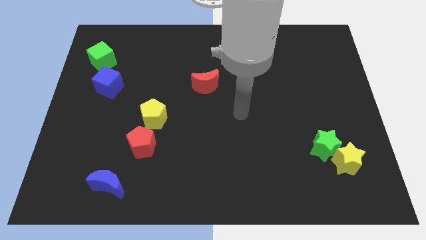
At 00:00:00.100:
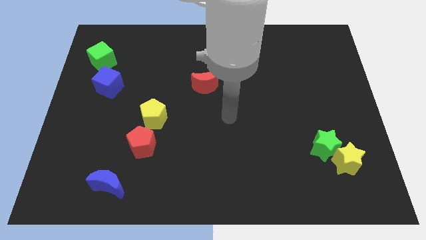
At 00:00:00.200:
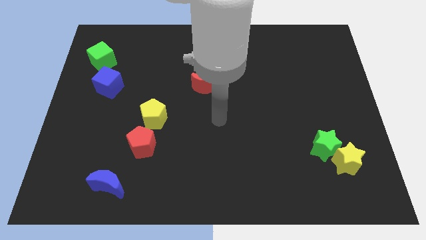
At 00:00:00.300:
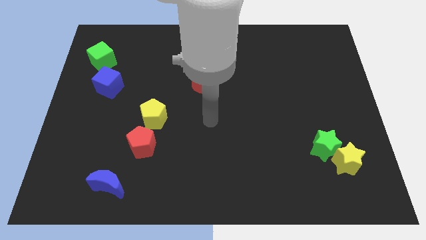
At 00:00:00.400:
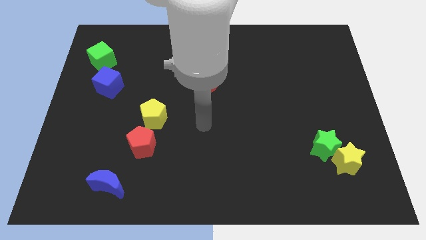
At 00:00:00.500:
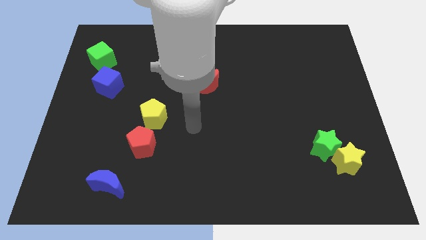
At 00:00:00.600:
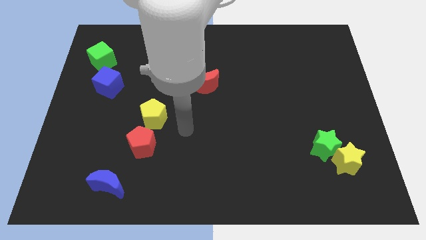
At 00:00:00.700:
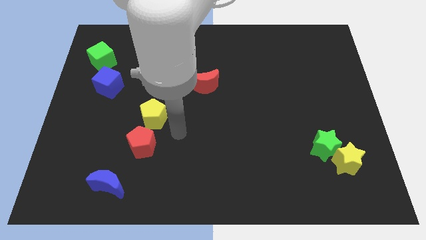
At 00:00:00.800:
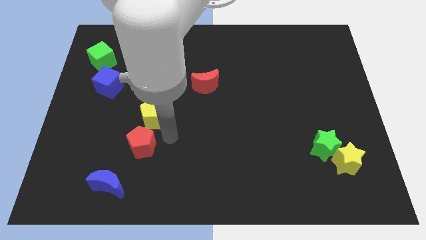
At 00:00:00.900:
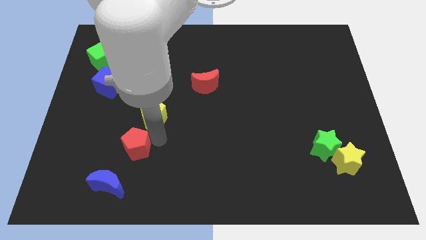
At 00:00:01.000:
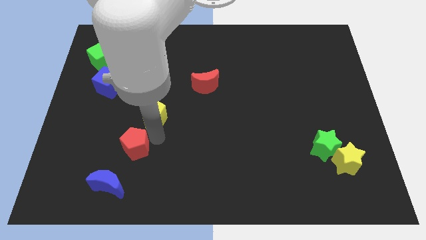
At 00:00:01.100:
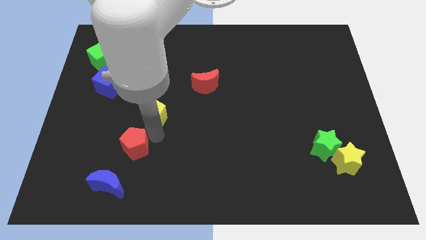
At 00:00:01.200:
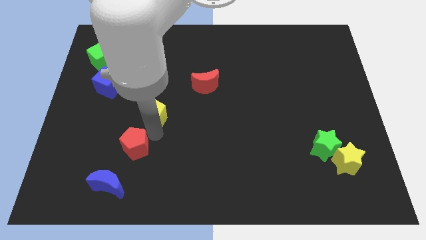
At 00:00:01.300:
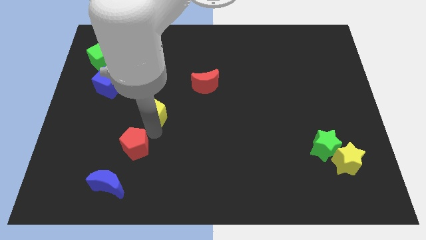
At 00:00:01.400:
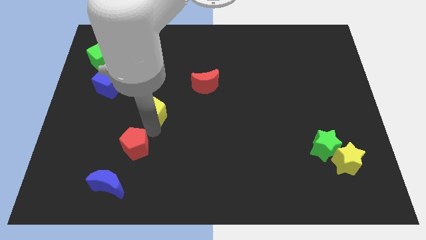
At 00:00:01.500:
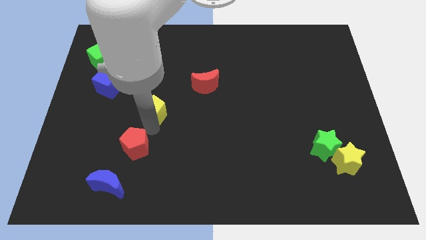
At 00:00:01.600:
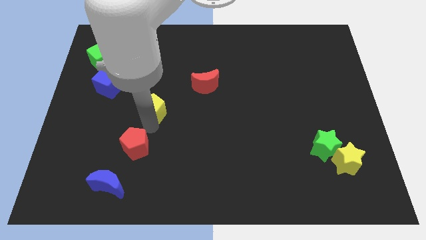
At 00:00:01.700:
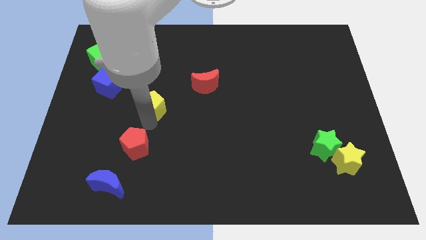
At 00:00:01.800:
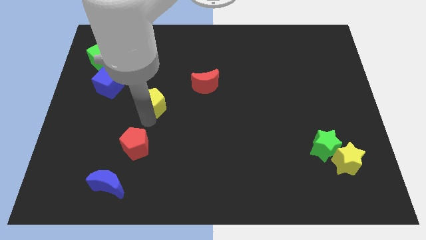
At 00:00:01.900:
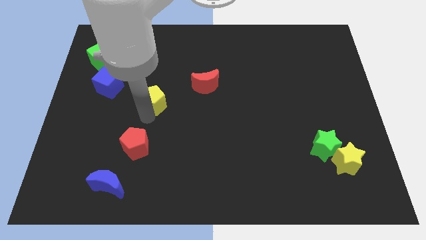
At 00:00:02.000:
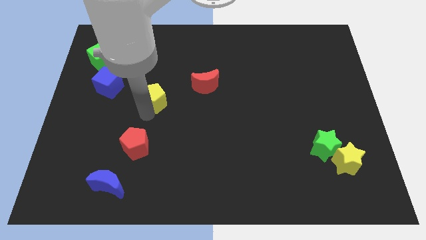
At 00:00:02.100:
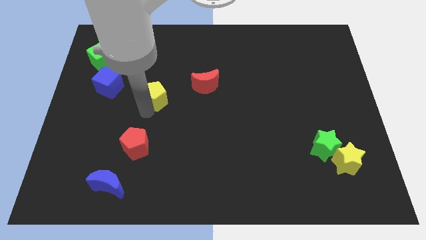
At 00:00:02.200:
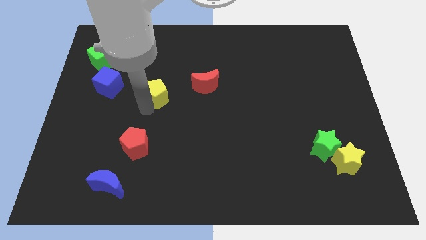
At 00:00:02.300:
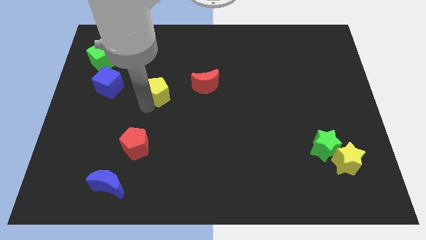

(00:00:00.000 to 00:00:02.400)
slightly push the yellow pentagon up

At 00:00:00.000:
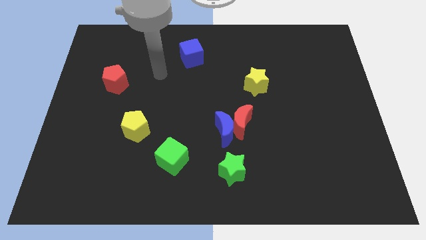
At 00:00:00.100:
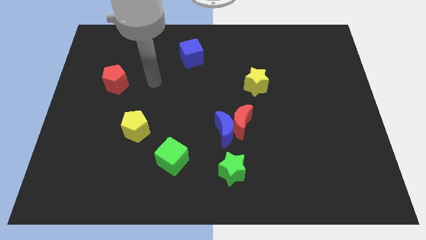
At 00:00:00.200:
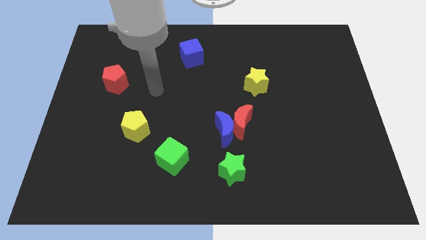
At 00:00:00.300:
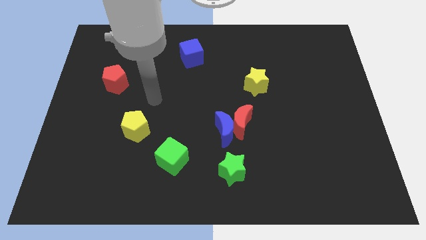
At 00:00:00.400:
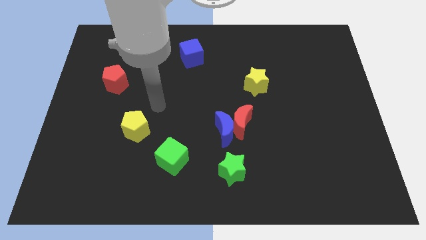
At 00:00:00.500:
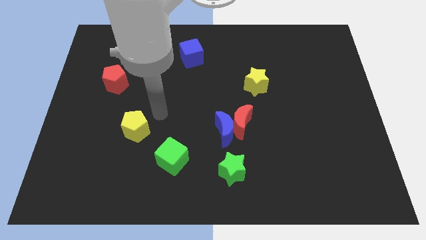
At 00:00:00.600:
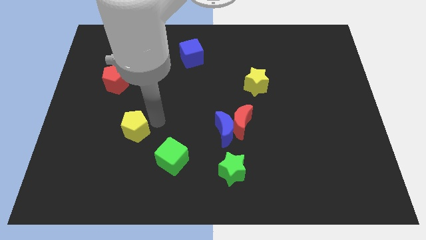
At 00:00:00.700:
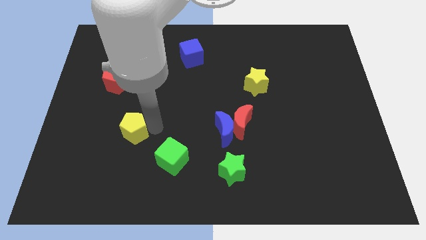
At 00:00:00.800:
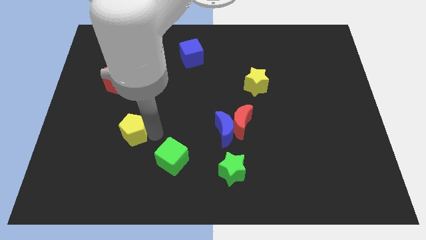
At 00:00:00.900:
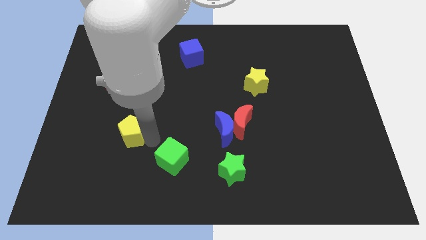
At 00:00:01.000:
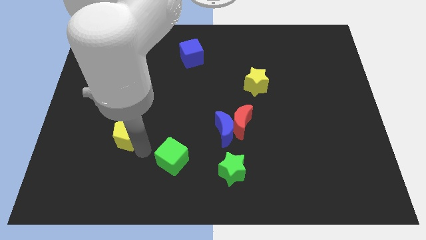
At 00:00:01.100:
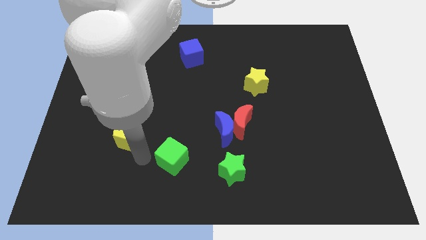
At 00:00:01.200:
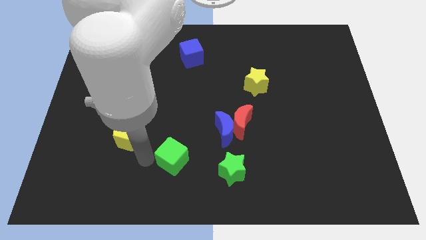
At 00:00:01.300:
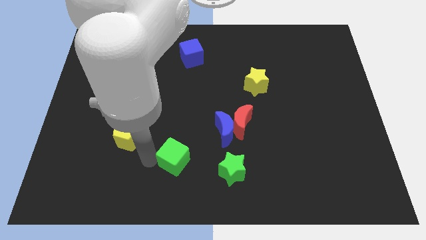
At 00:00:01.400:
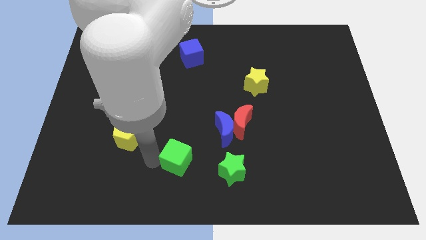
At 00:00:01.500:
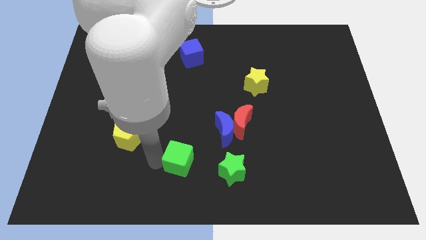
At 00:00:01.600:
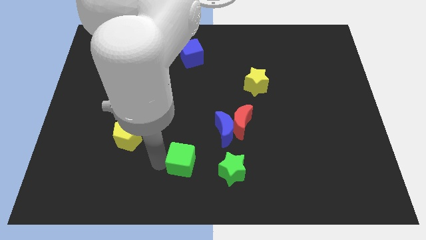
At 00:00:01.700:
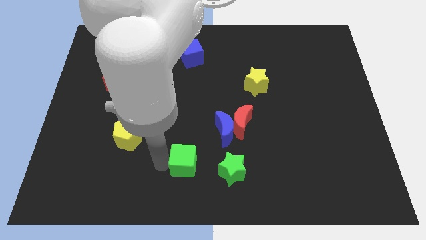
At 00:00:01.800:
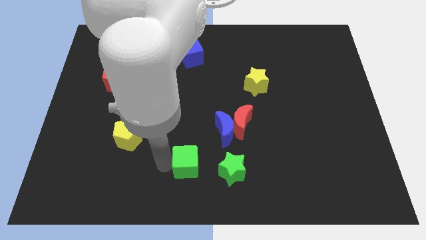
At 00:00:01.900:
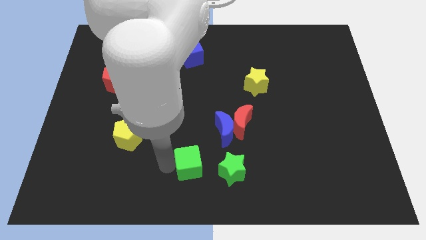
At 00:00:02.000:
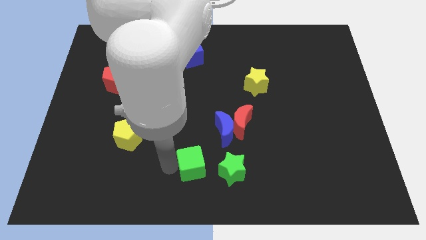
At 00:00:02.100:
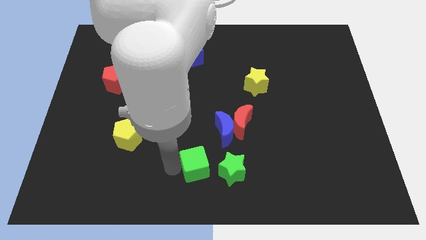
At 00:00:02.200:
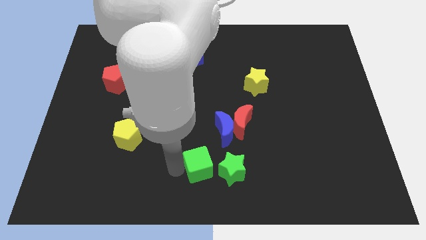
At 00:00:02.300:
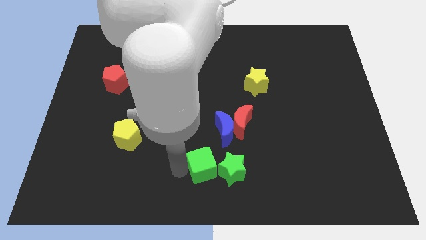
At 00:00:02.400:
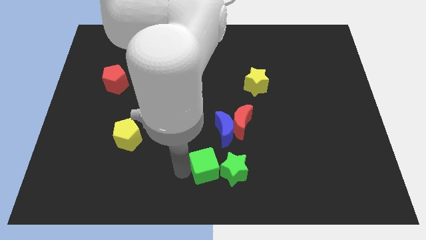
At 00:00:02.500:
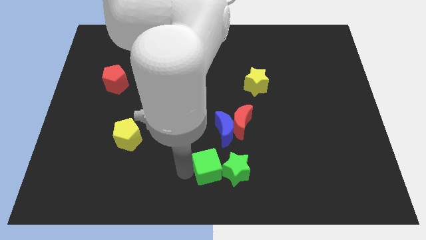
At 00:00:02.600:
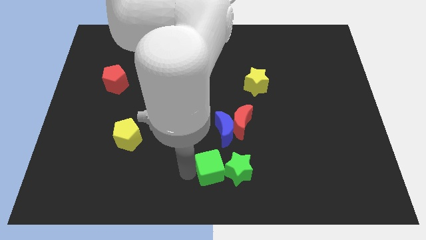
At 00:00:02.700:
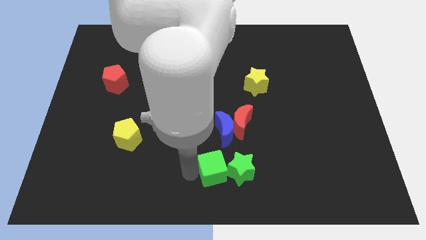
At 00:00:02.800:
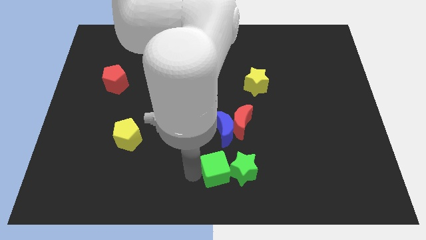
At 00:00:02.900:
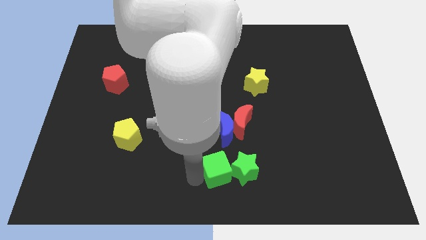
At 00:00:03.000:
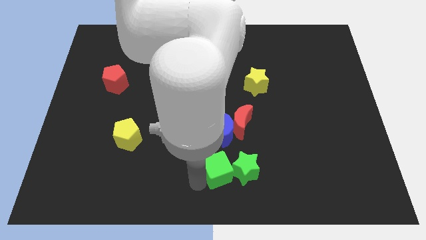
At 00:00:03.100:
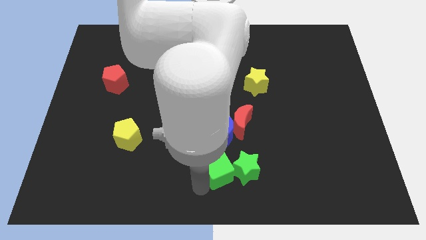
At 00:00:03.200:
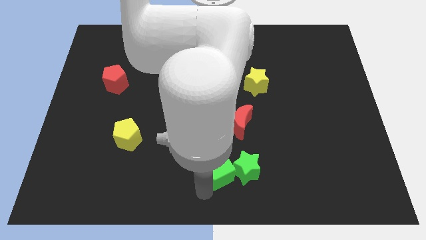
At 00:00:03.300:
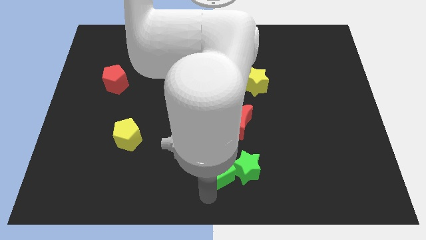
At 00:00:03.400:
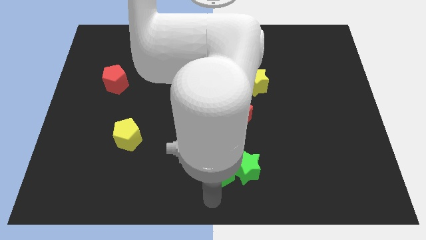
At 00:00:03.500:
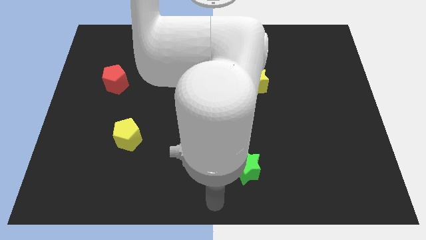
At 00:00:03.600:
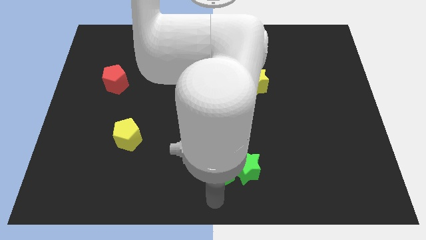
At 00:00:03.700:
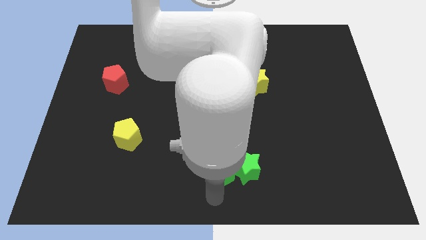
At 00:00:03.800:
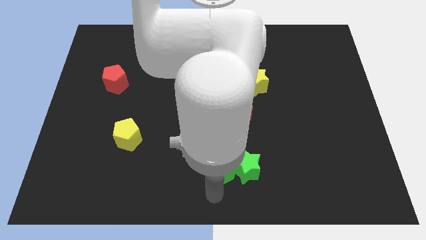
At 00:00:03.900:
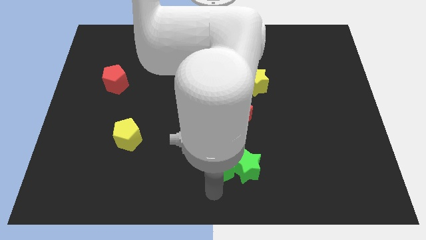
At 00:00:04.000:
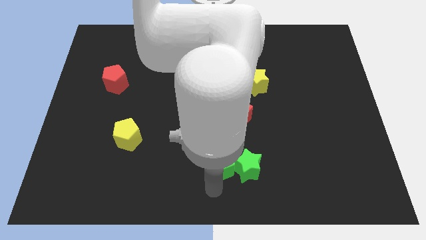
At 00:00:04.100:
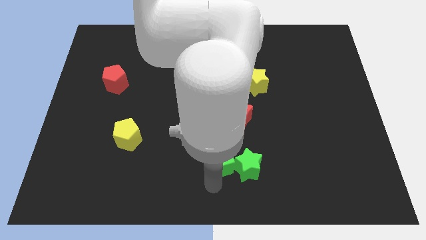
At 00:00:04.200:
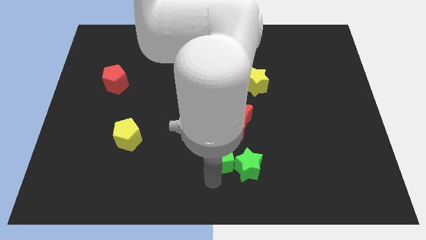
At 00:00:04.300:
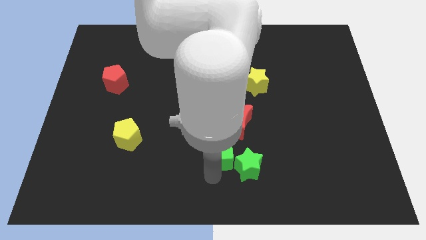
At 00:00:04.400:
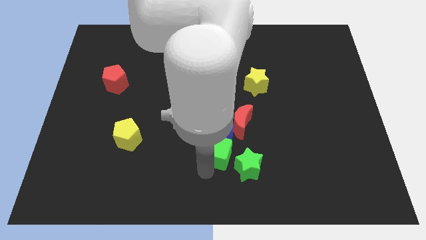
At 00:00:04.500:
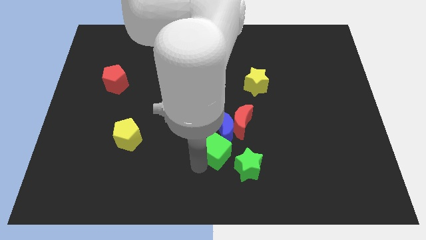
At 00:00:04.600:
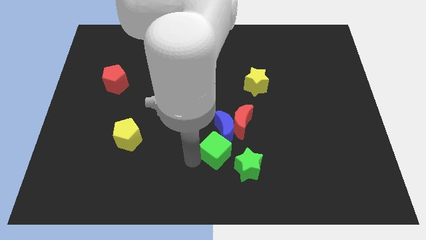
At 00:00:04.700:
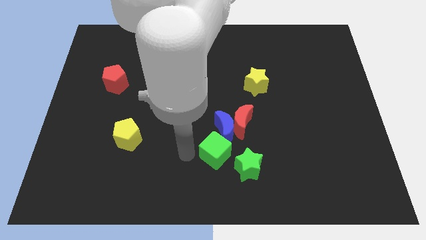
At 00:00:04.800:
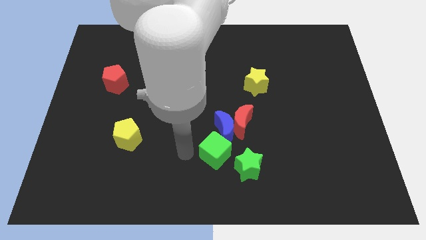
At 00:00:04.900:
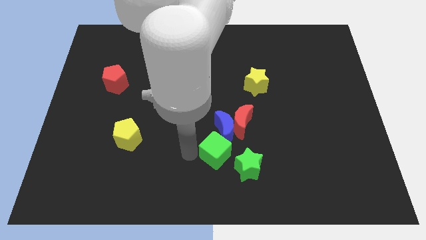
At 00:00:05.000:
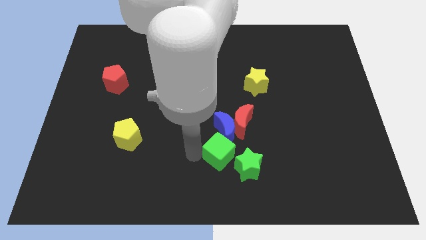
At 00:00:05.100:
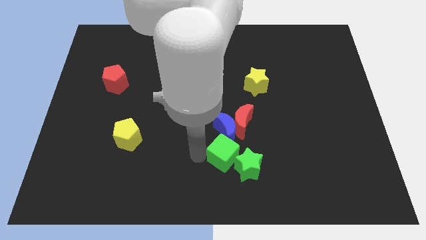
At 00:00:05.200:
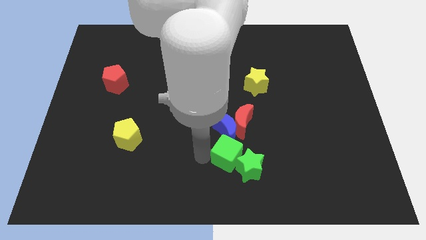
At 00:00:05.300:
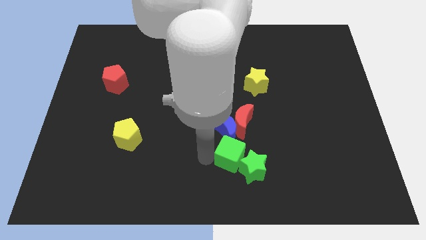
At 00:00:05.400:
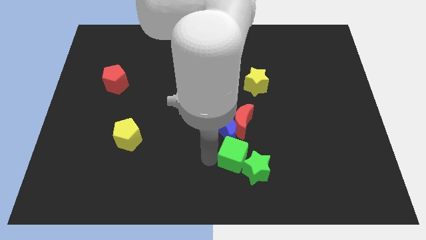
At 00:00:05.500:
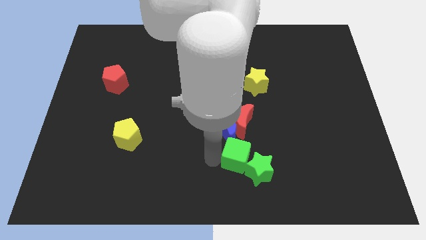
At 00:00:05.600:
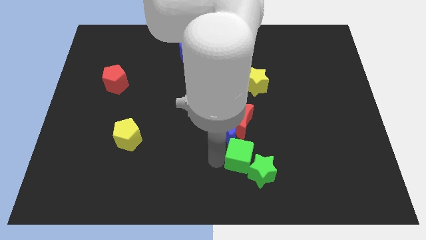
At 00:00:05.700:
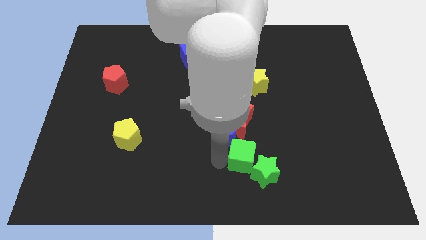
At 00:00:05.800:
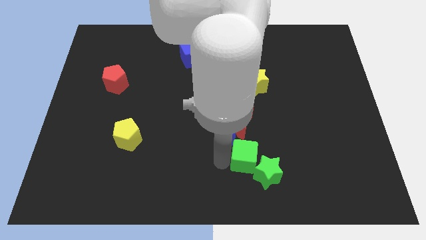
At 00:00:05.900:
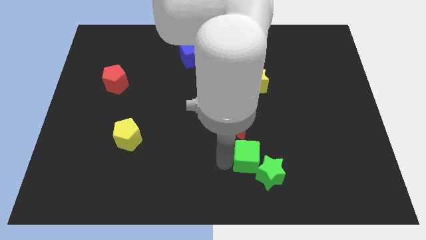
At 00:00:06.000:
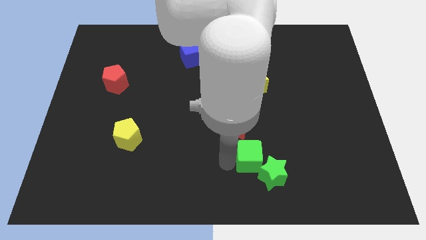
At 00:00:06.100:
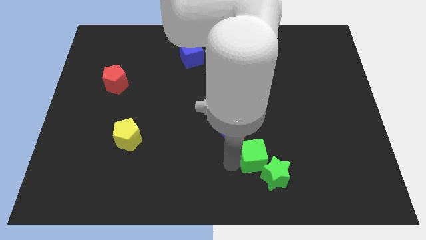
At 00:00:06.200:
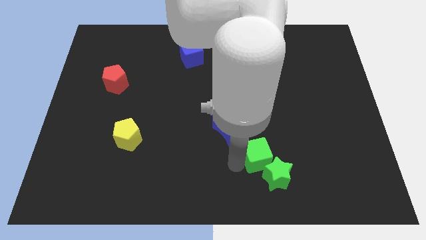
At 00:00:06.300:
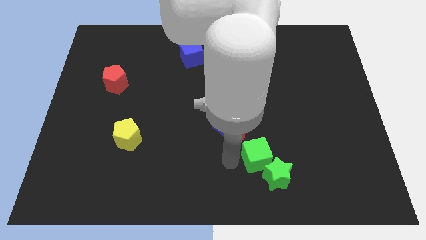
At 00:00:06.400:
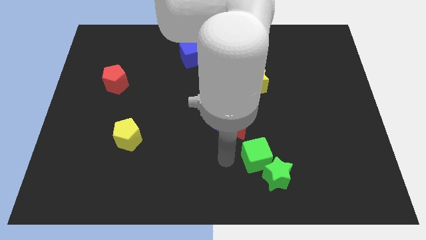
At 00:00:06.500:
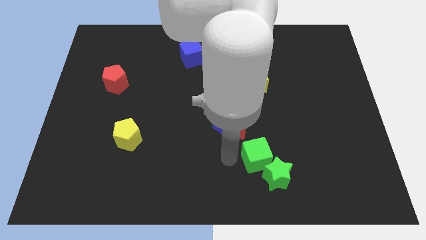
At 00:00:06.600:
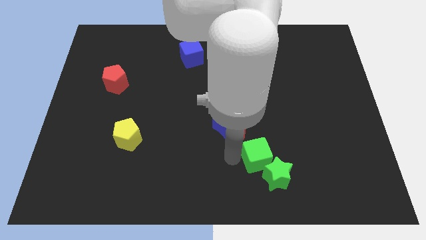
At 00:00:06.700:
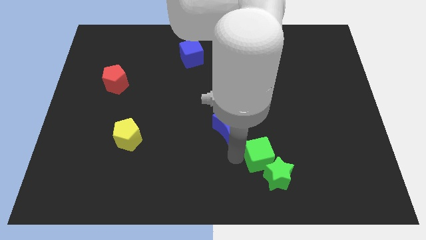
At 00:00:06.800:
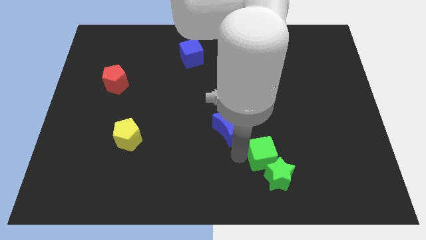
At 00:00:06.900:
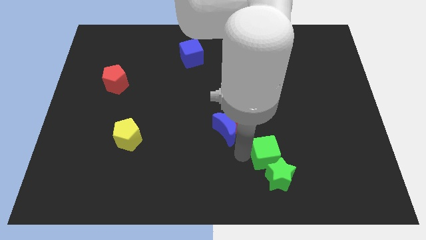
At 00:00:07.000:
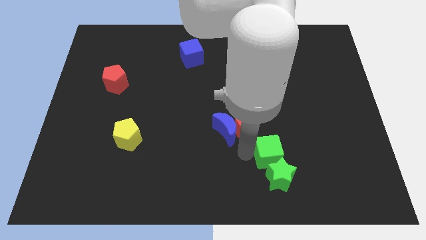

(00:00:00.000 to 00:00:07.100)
move the green cube to the right
